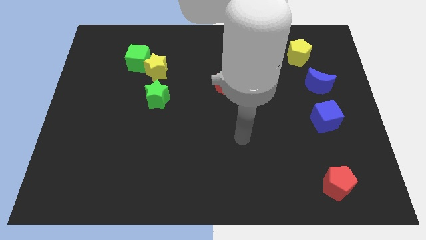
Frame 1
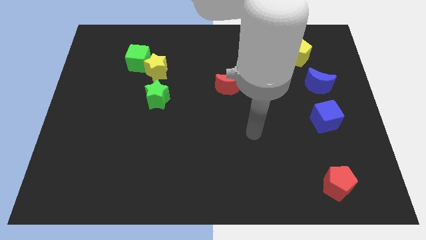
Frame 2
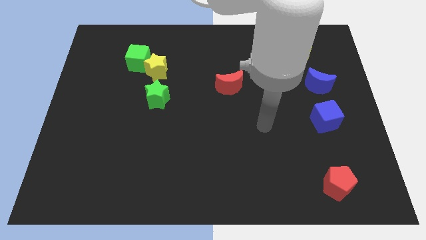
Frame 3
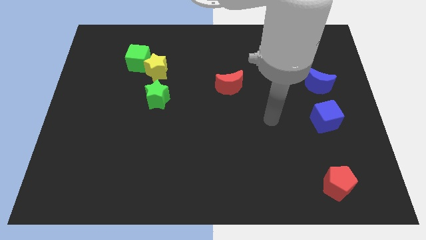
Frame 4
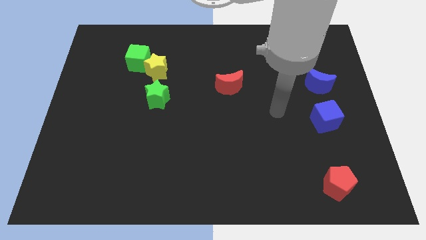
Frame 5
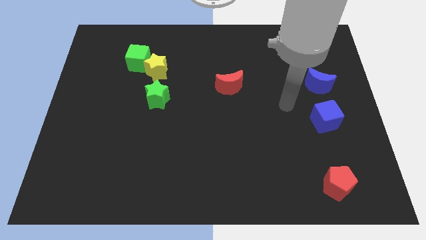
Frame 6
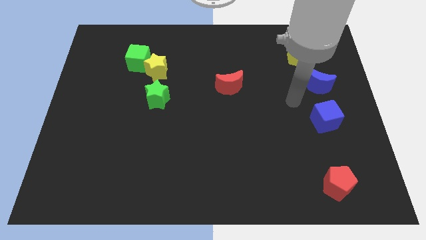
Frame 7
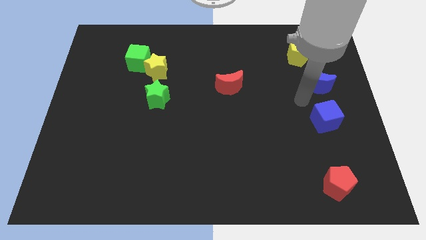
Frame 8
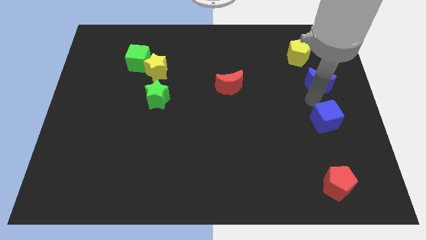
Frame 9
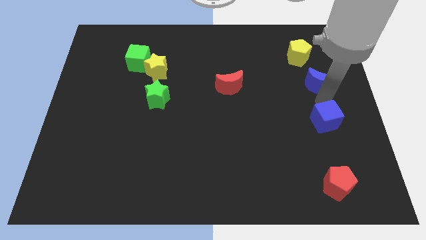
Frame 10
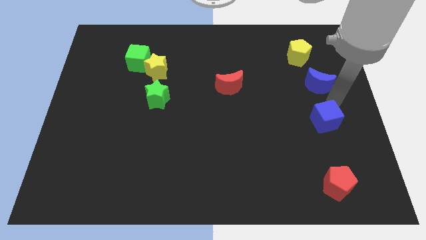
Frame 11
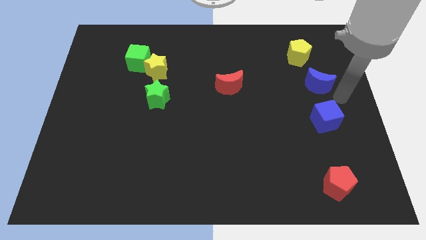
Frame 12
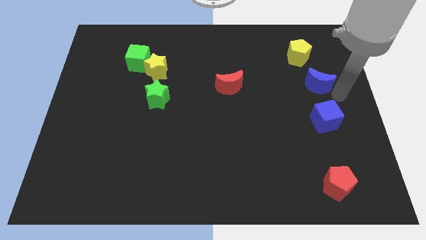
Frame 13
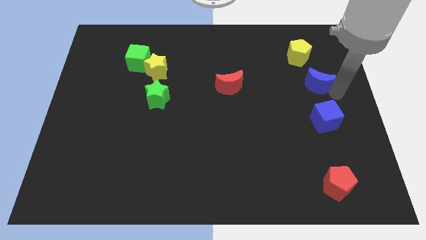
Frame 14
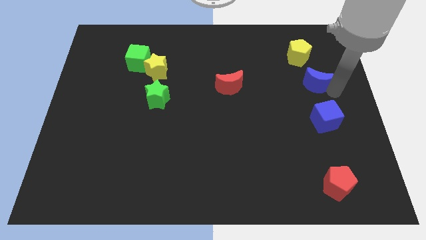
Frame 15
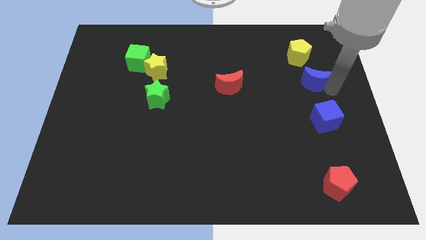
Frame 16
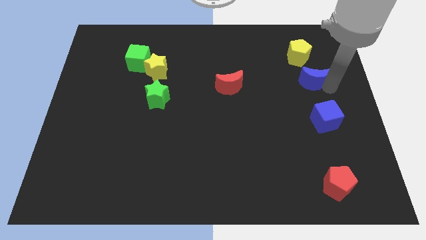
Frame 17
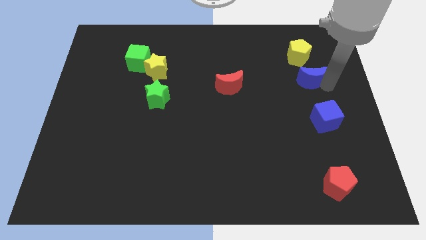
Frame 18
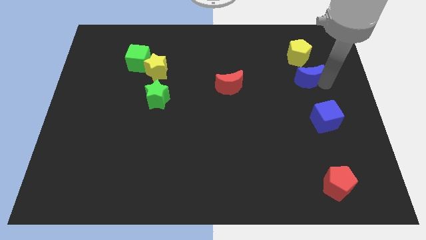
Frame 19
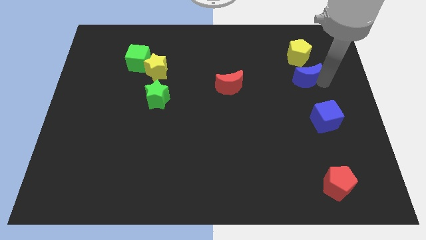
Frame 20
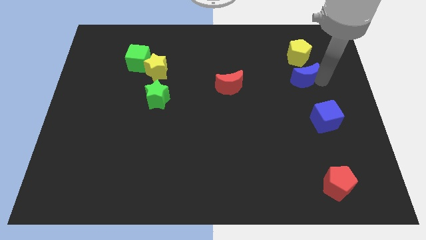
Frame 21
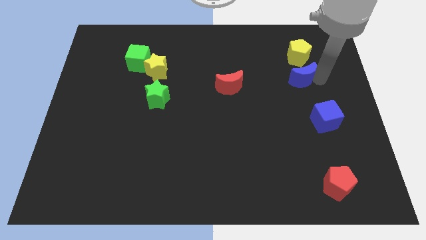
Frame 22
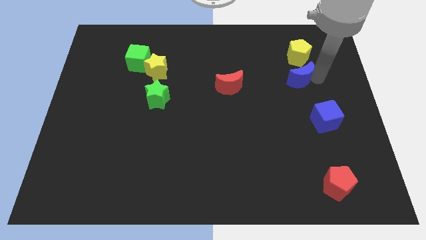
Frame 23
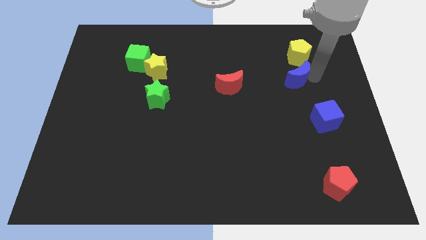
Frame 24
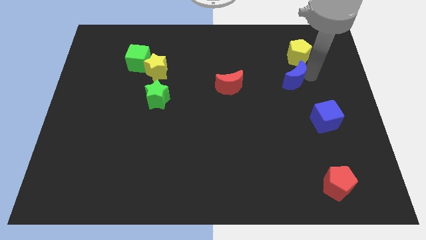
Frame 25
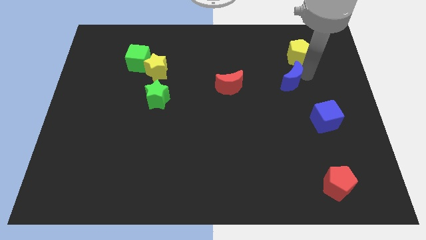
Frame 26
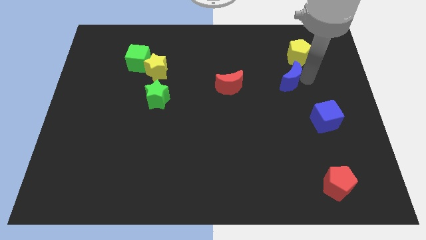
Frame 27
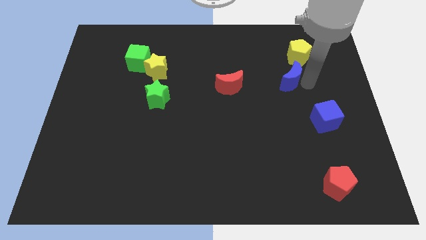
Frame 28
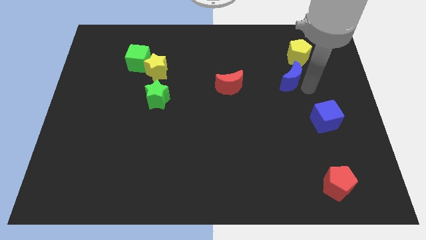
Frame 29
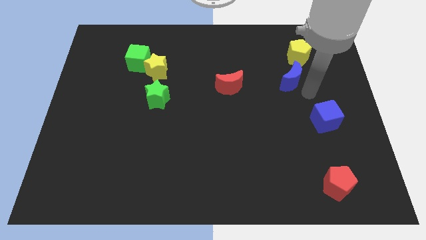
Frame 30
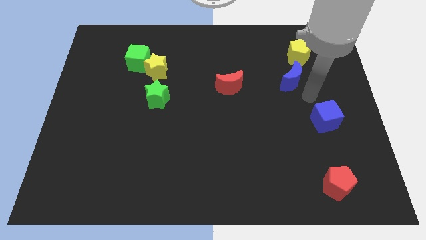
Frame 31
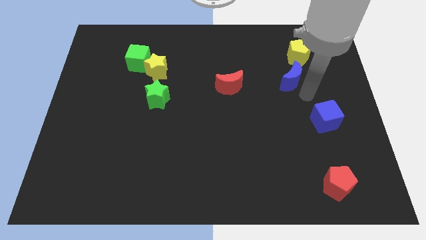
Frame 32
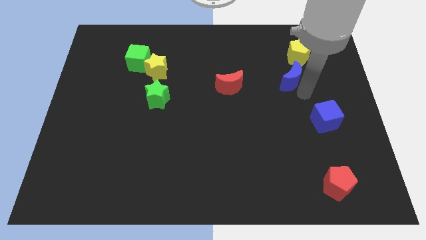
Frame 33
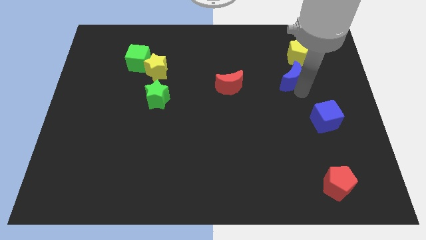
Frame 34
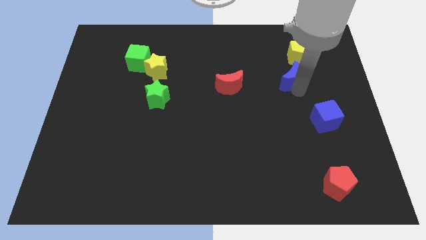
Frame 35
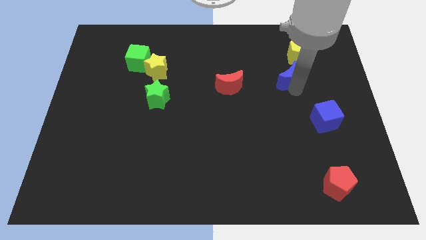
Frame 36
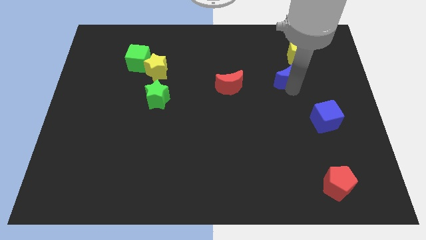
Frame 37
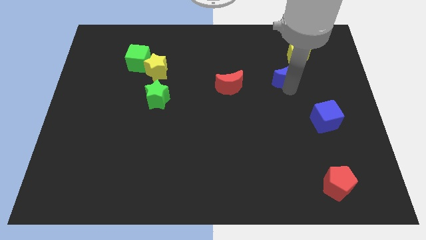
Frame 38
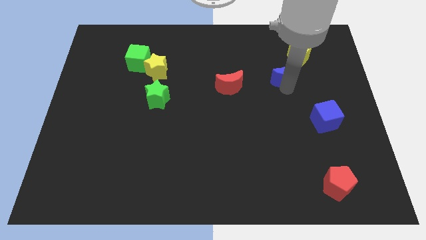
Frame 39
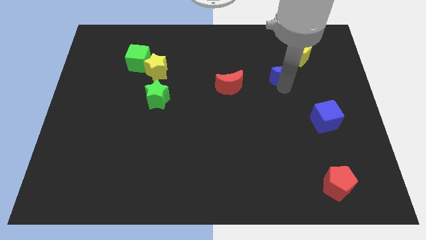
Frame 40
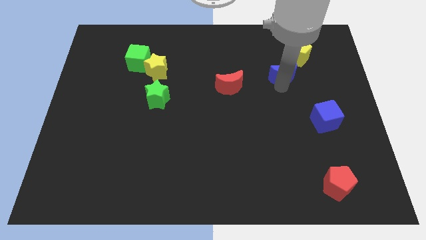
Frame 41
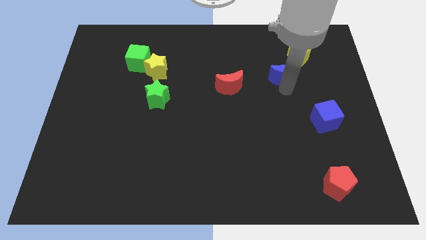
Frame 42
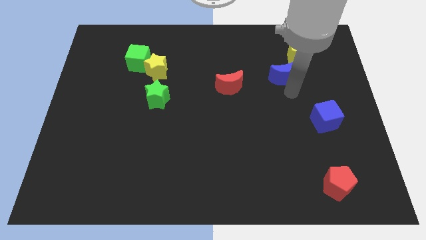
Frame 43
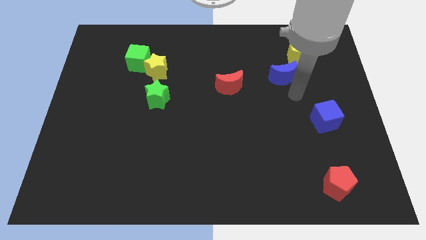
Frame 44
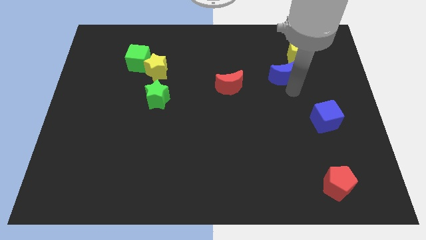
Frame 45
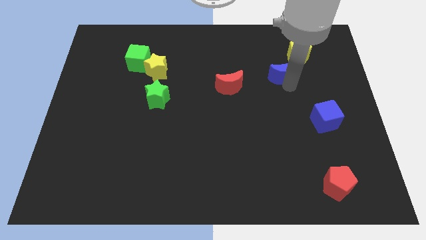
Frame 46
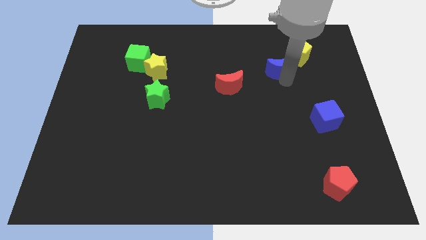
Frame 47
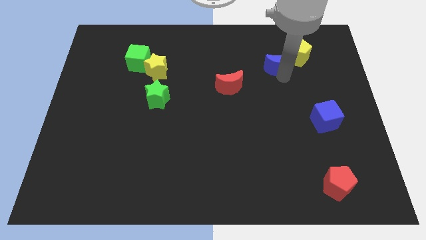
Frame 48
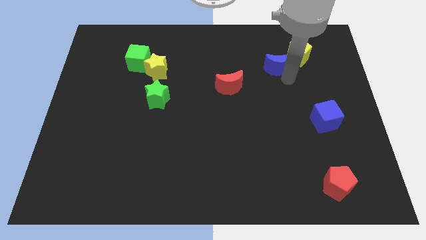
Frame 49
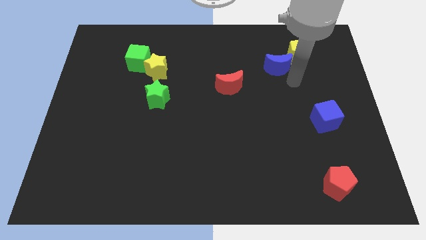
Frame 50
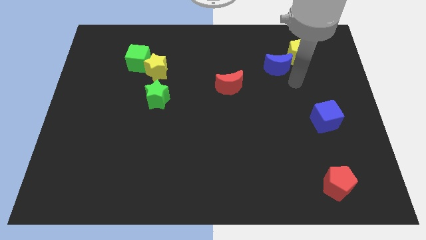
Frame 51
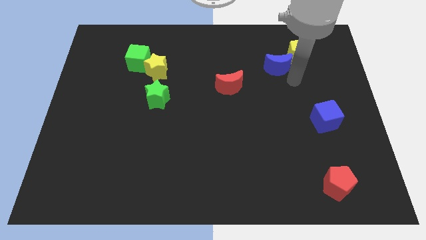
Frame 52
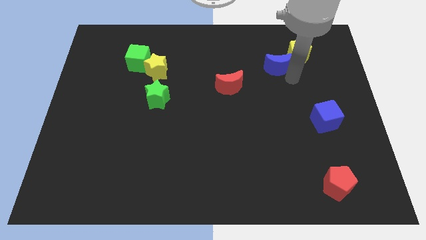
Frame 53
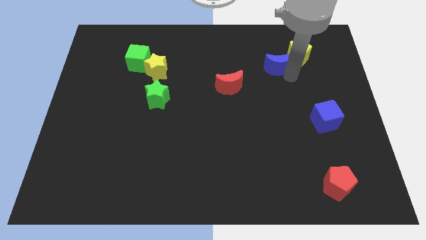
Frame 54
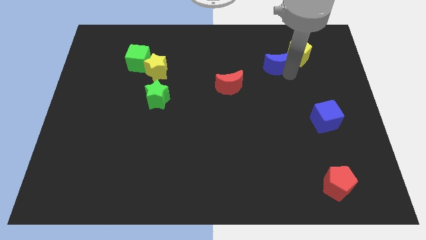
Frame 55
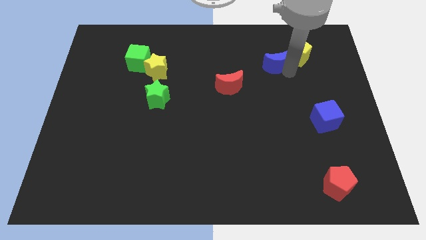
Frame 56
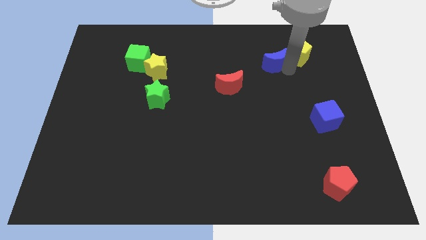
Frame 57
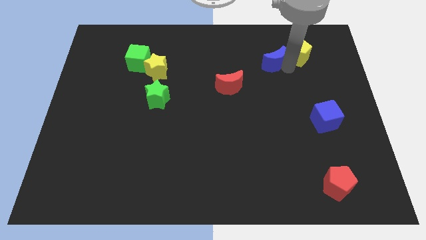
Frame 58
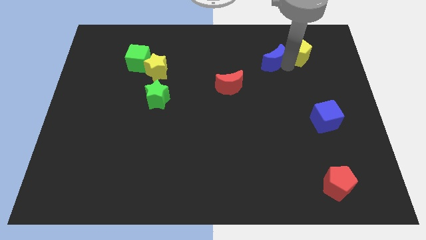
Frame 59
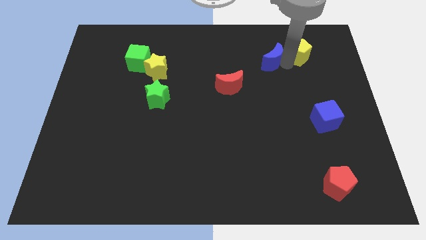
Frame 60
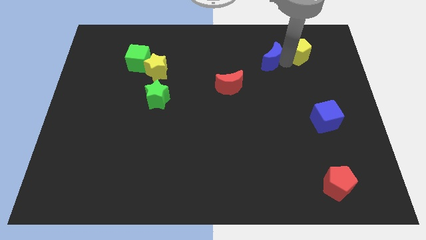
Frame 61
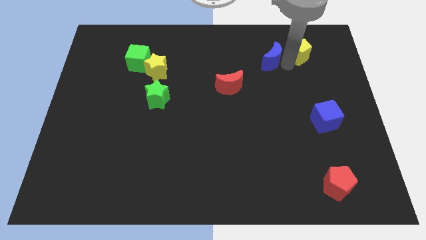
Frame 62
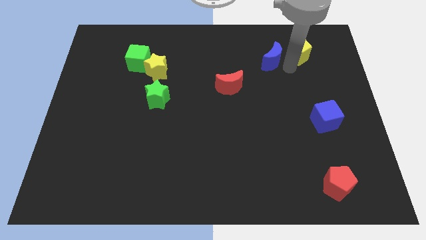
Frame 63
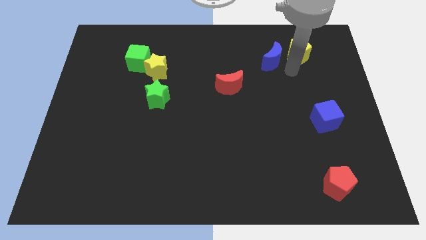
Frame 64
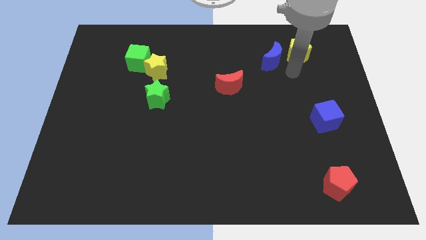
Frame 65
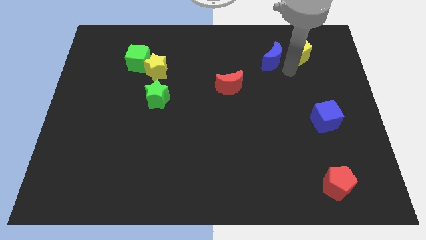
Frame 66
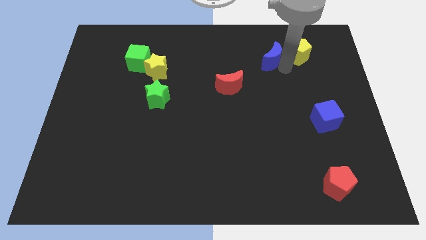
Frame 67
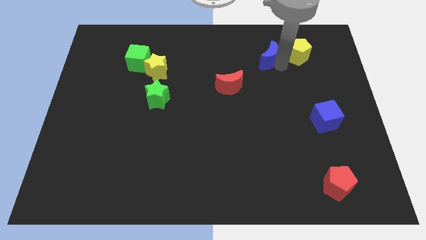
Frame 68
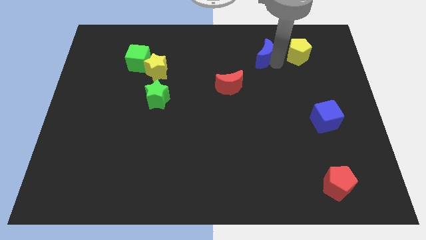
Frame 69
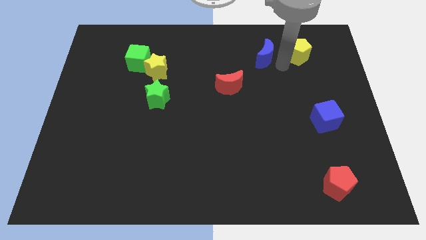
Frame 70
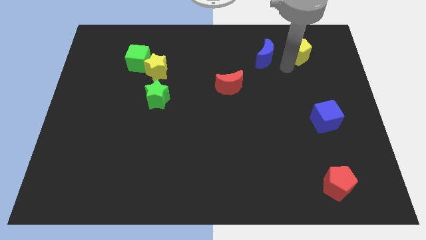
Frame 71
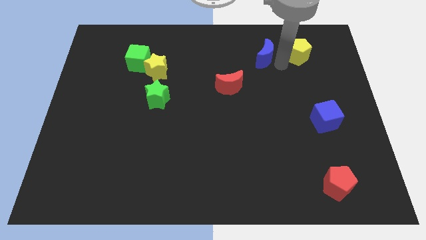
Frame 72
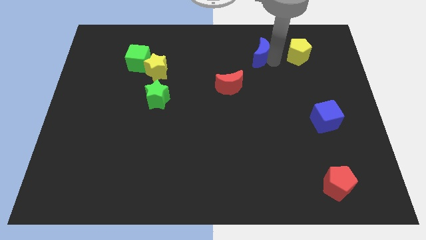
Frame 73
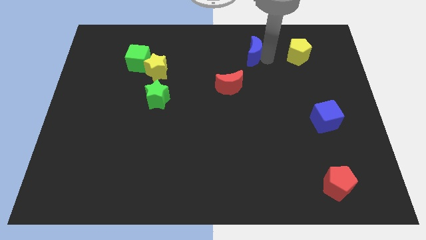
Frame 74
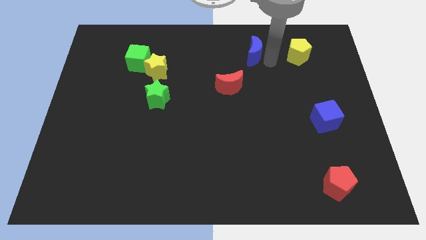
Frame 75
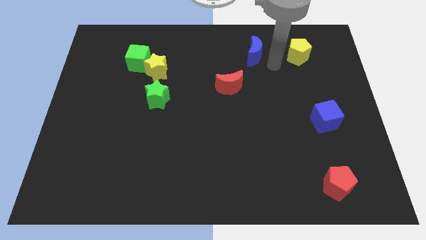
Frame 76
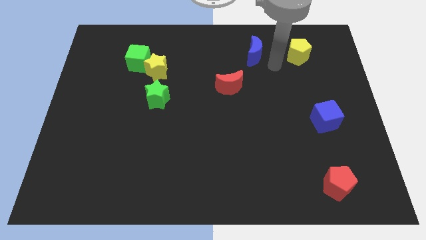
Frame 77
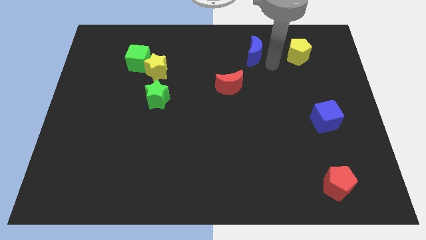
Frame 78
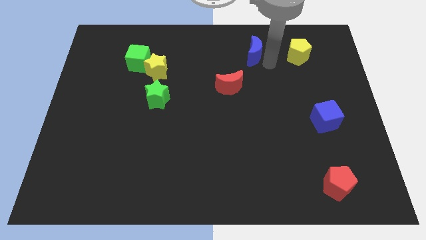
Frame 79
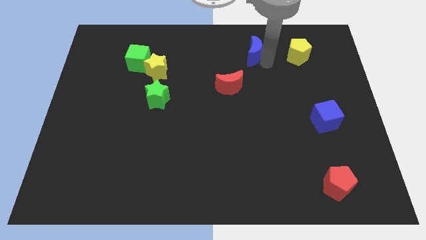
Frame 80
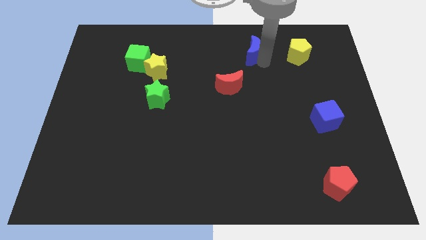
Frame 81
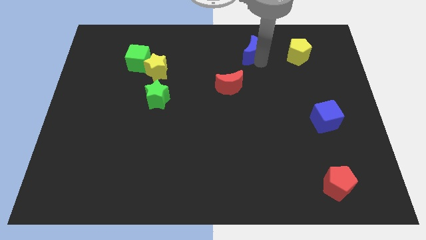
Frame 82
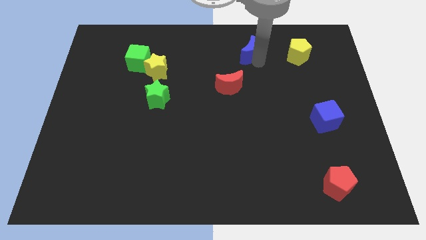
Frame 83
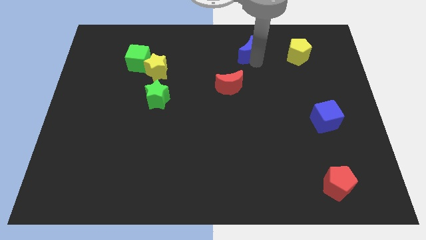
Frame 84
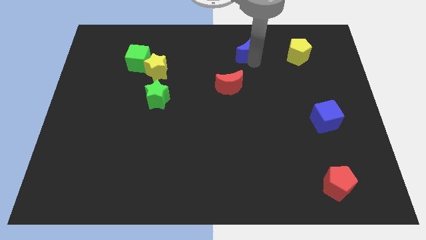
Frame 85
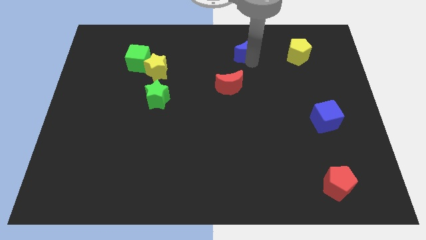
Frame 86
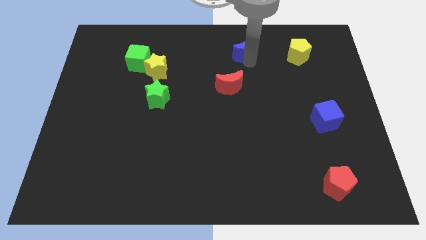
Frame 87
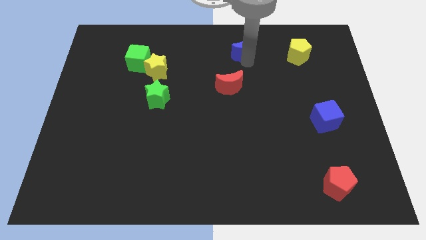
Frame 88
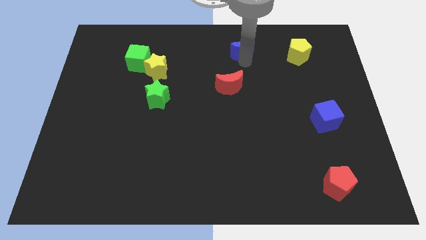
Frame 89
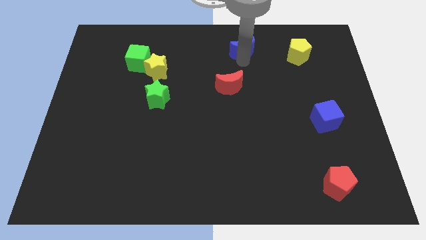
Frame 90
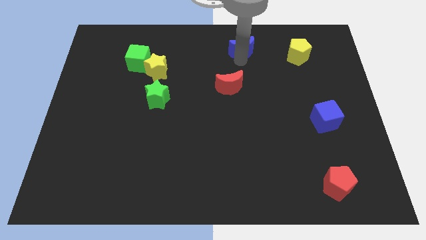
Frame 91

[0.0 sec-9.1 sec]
put the blue moon to the top
